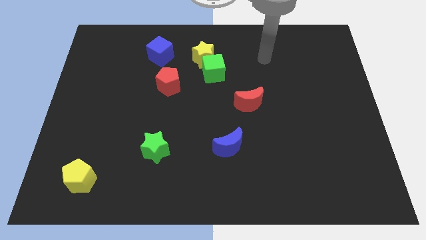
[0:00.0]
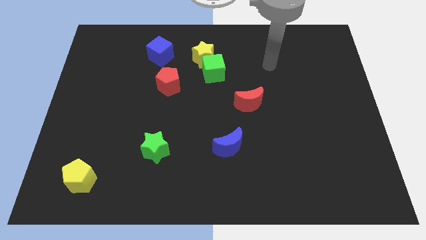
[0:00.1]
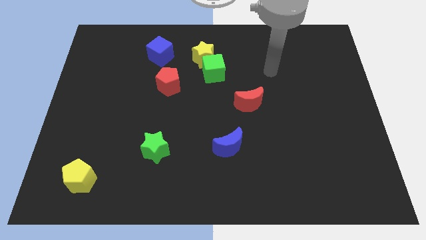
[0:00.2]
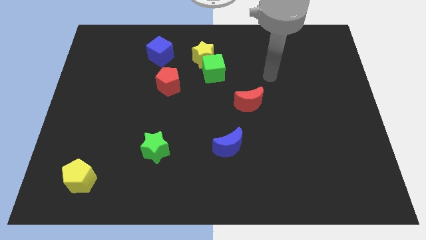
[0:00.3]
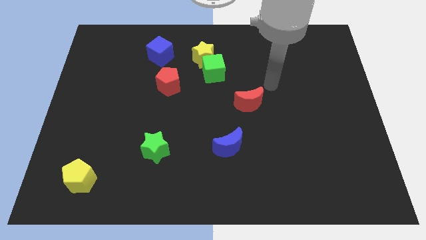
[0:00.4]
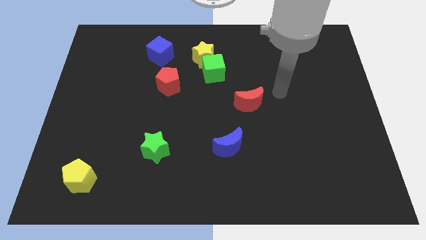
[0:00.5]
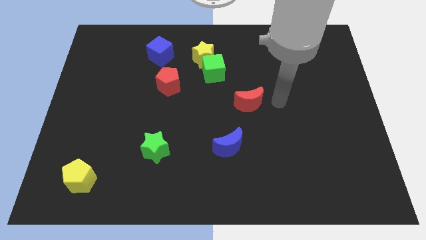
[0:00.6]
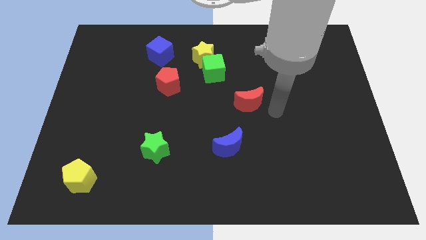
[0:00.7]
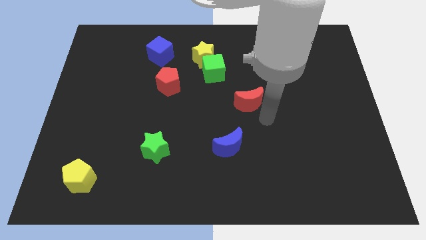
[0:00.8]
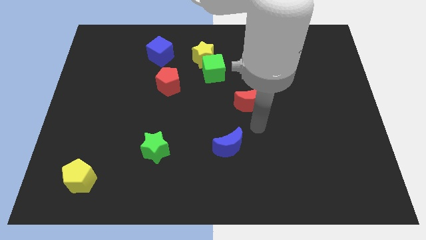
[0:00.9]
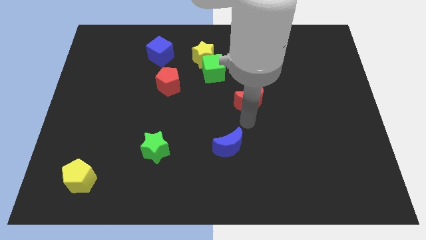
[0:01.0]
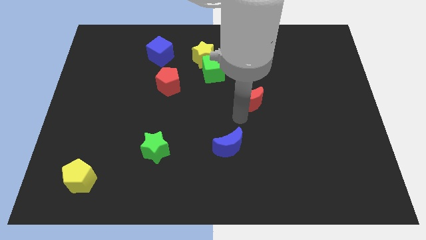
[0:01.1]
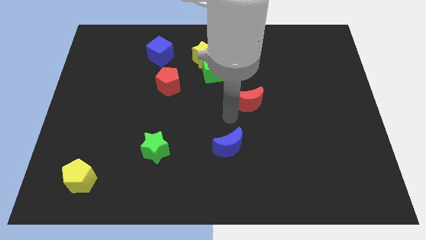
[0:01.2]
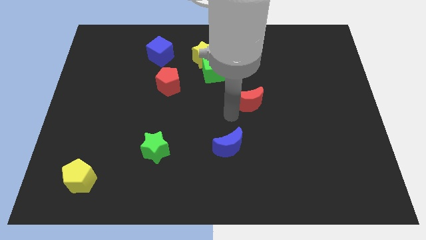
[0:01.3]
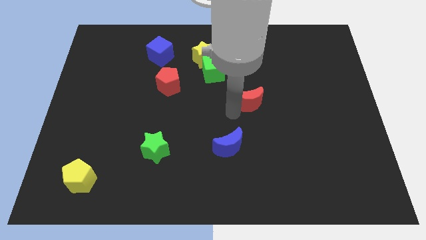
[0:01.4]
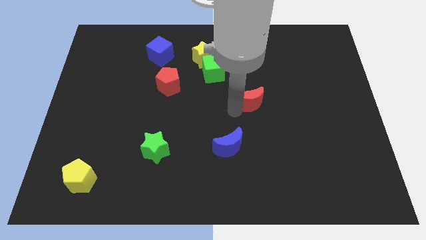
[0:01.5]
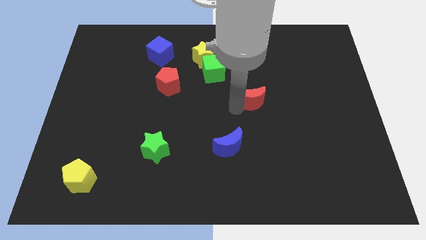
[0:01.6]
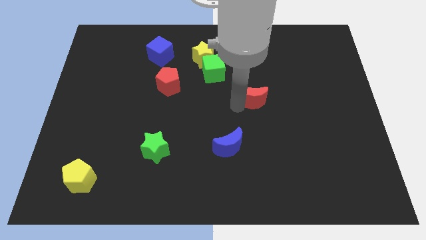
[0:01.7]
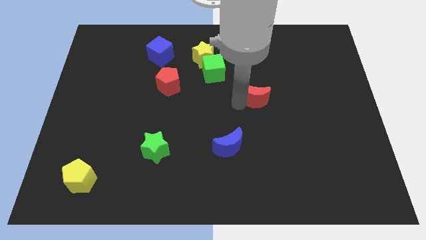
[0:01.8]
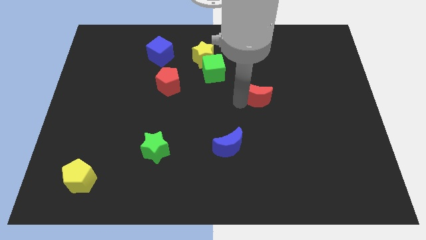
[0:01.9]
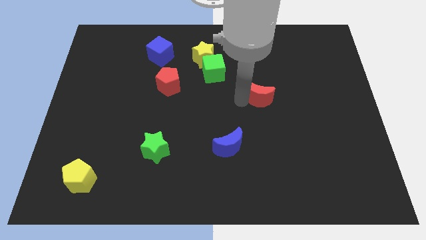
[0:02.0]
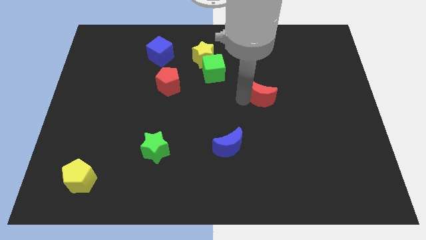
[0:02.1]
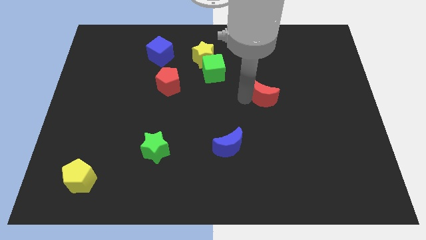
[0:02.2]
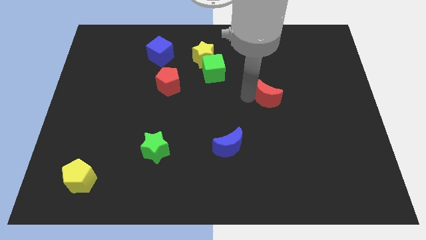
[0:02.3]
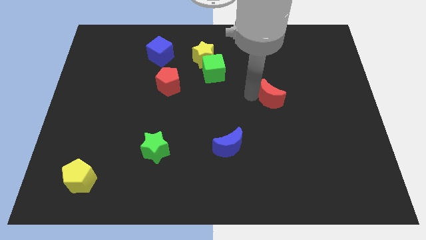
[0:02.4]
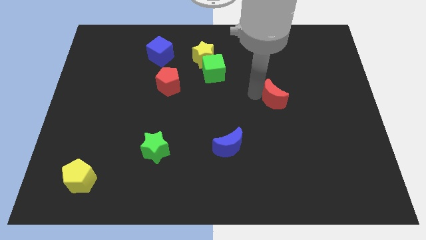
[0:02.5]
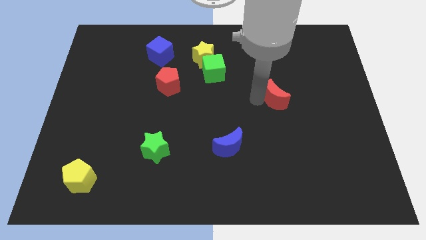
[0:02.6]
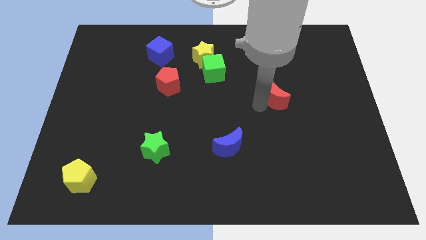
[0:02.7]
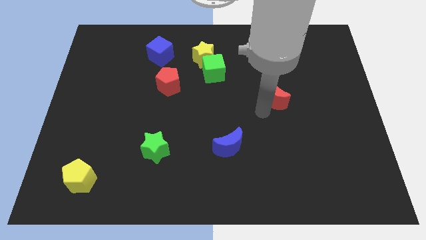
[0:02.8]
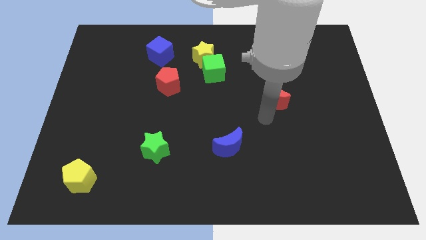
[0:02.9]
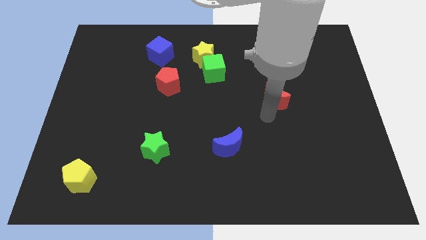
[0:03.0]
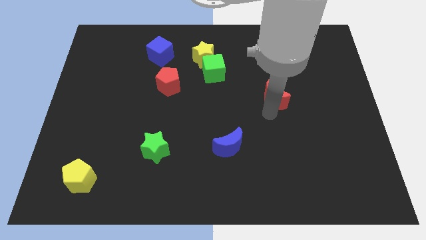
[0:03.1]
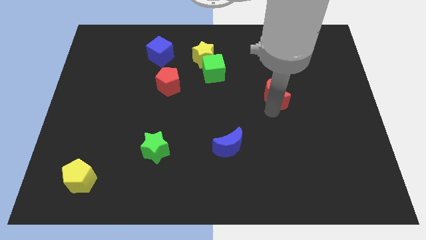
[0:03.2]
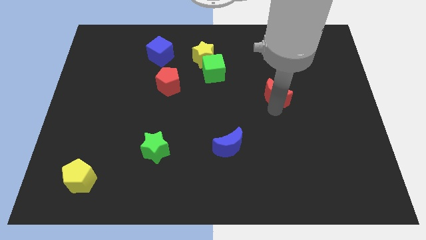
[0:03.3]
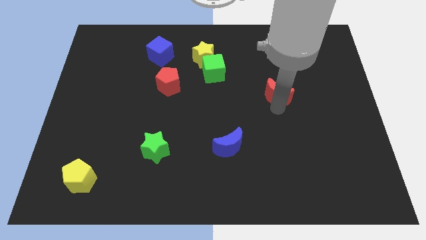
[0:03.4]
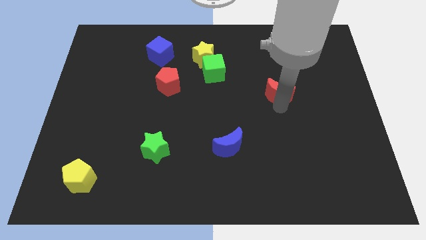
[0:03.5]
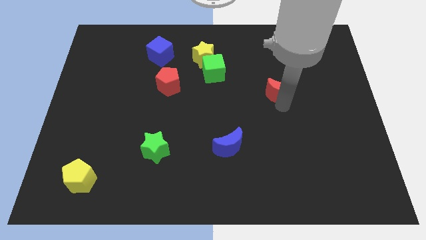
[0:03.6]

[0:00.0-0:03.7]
slide the red moon slightly diagonally upwards and right

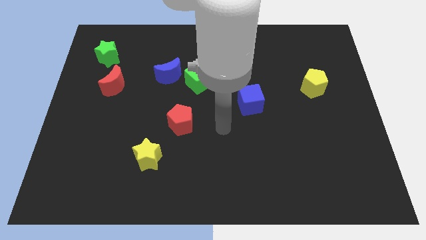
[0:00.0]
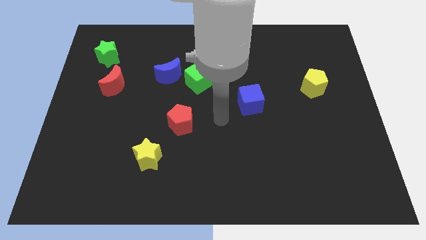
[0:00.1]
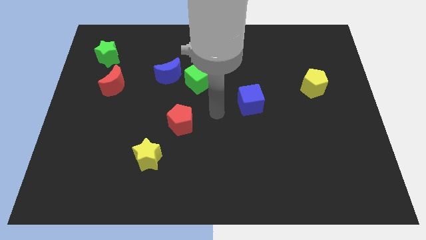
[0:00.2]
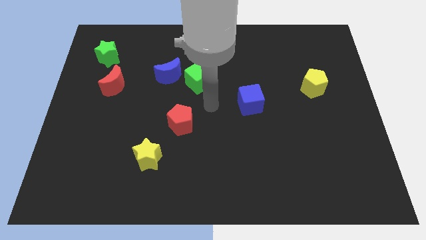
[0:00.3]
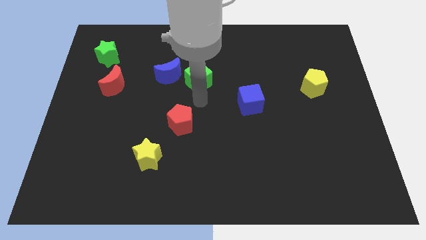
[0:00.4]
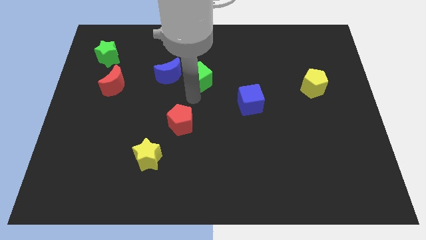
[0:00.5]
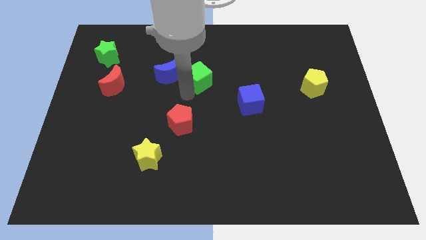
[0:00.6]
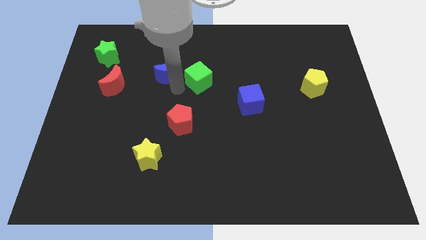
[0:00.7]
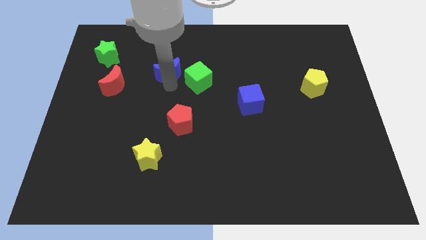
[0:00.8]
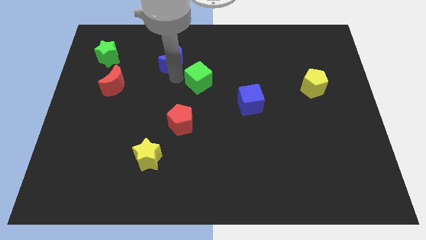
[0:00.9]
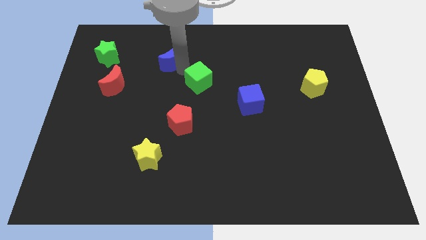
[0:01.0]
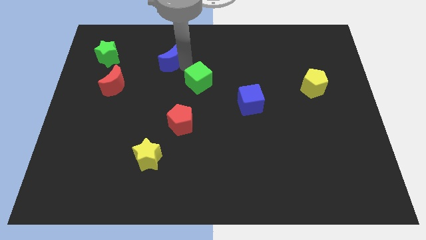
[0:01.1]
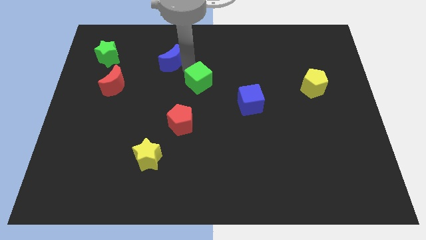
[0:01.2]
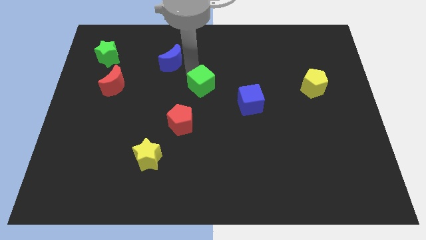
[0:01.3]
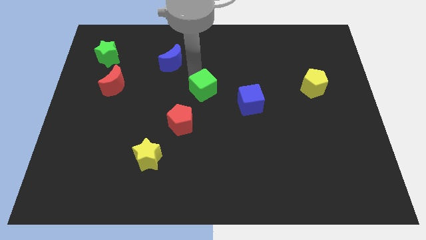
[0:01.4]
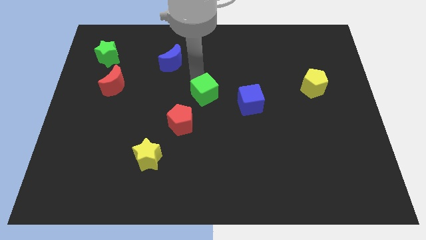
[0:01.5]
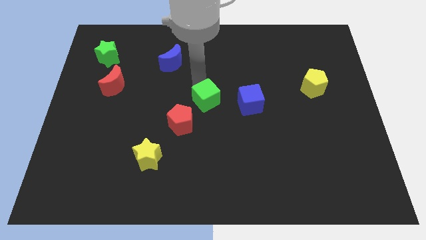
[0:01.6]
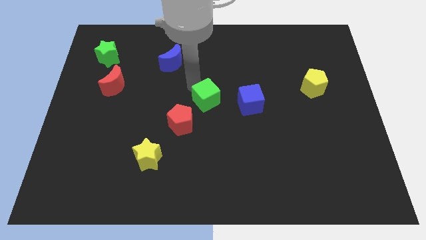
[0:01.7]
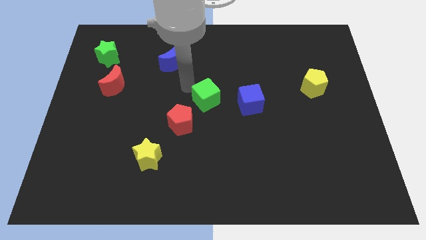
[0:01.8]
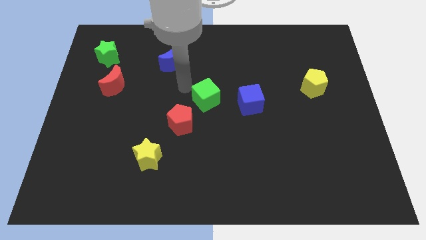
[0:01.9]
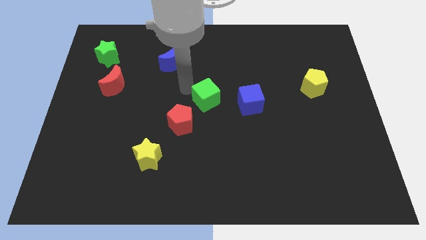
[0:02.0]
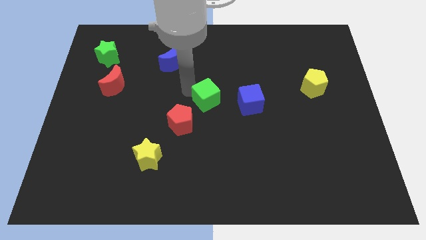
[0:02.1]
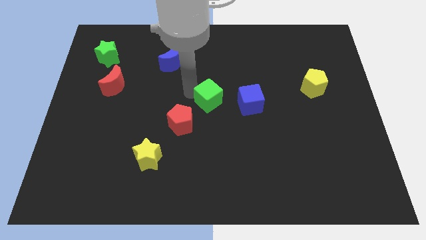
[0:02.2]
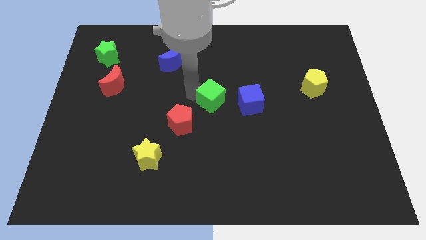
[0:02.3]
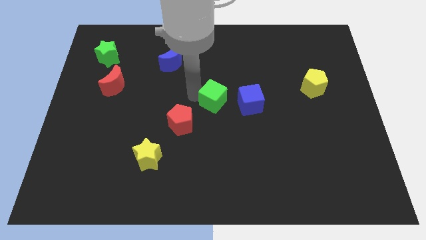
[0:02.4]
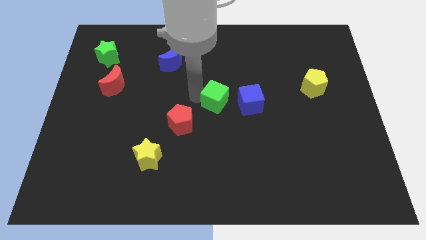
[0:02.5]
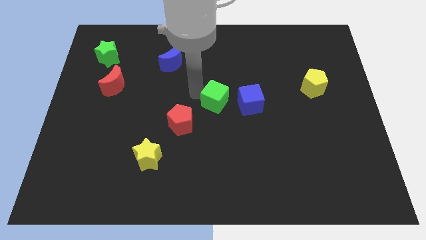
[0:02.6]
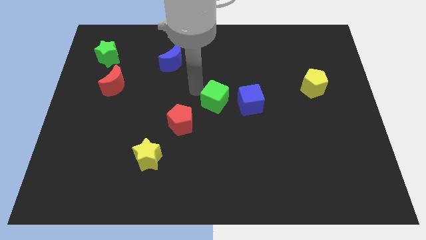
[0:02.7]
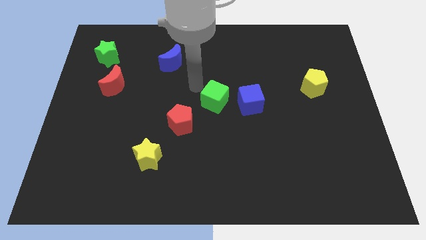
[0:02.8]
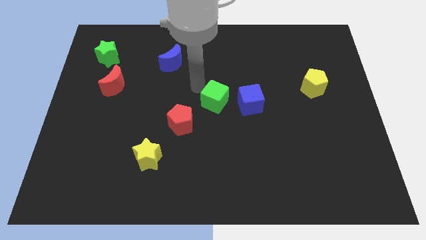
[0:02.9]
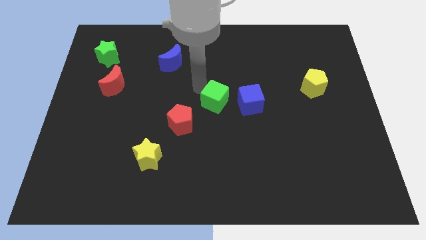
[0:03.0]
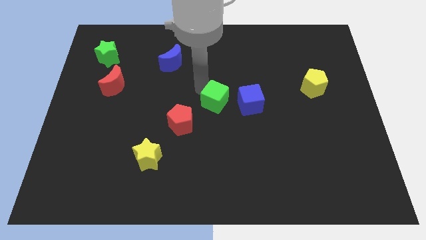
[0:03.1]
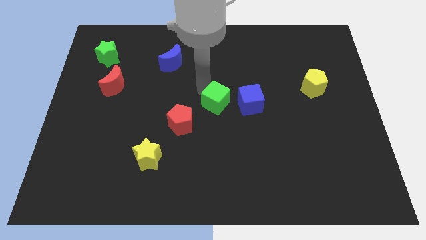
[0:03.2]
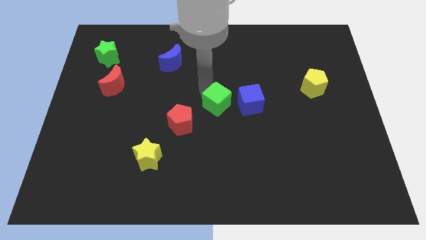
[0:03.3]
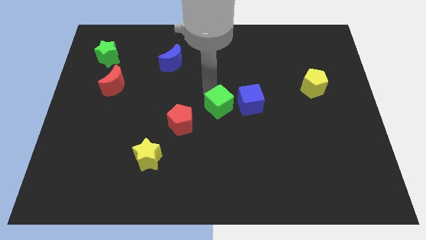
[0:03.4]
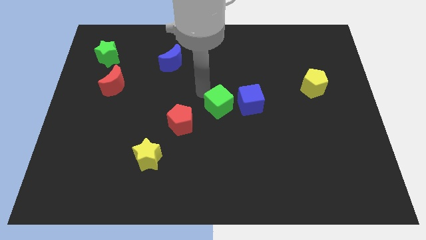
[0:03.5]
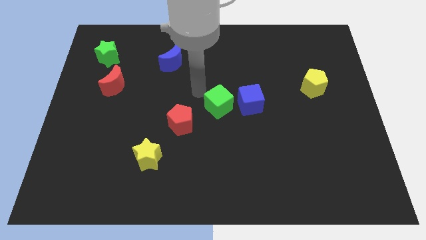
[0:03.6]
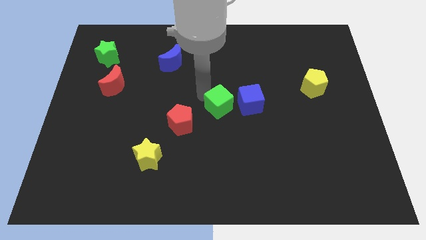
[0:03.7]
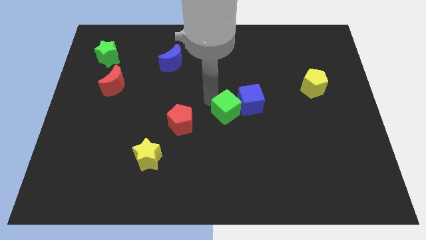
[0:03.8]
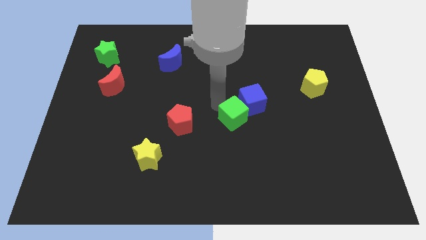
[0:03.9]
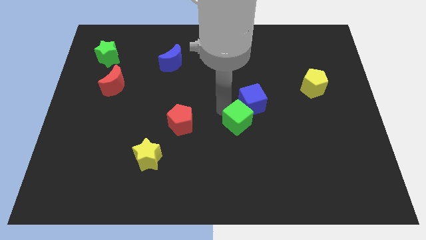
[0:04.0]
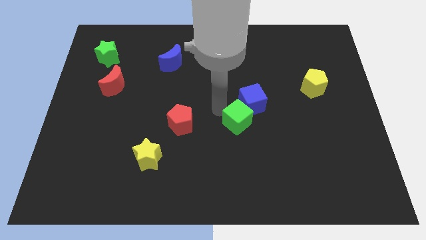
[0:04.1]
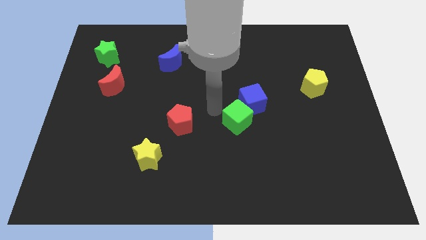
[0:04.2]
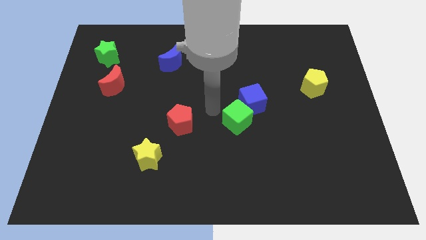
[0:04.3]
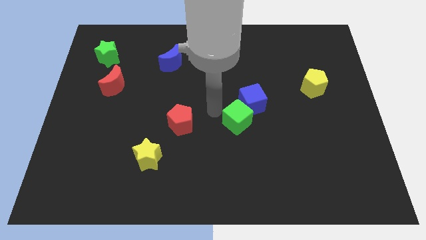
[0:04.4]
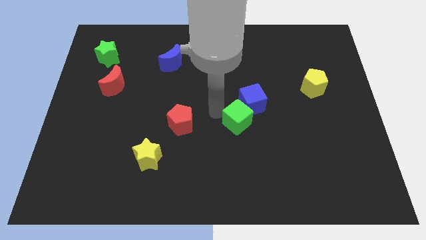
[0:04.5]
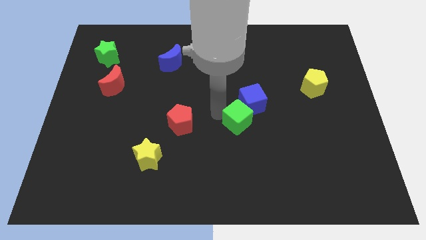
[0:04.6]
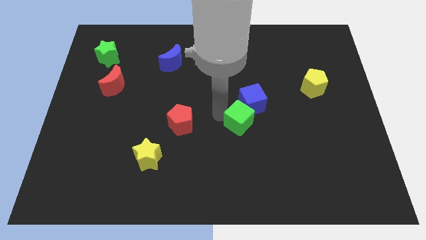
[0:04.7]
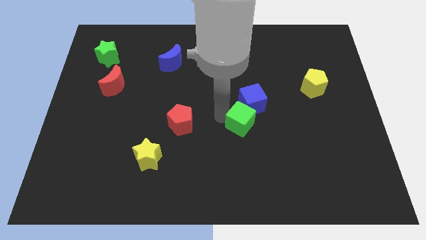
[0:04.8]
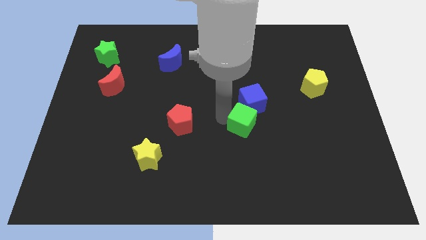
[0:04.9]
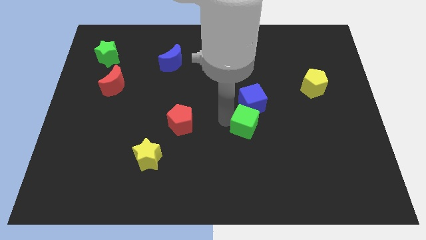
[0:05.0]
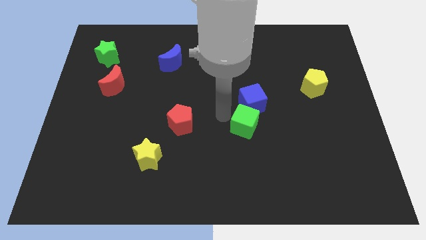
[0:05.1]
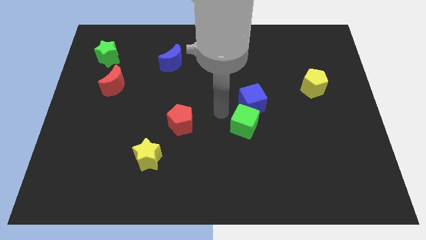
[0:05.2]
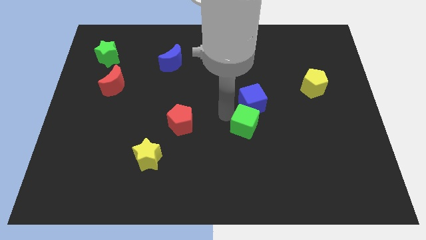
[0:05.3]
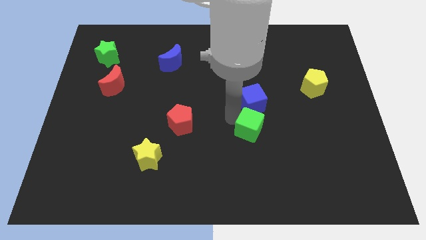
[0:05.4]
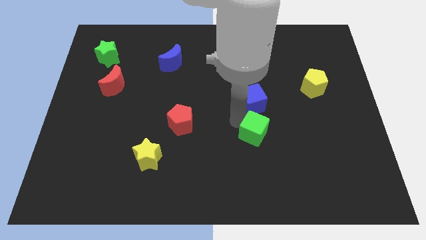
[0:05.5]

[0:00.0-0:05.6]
slide the green cube down and right diagonally
